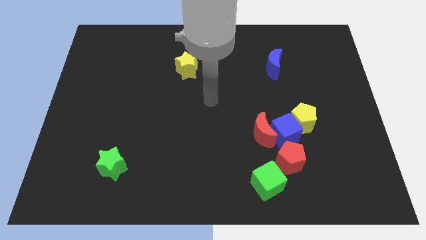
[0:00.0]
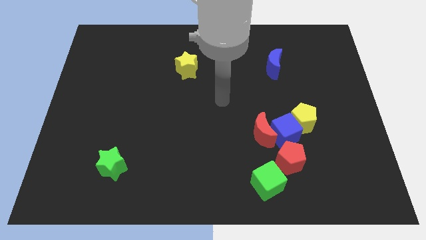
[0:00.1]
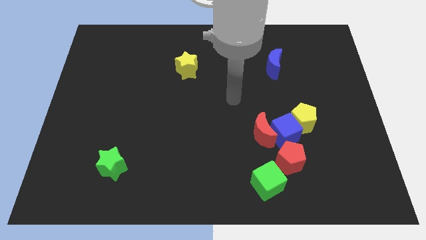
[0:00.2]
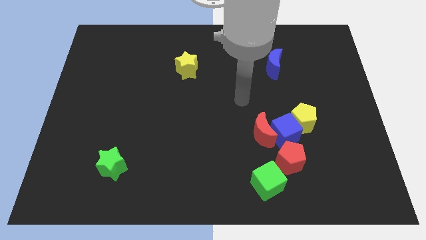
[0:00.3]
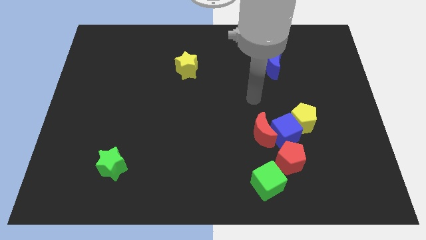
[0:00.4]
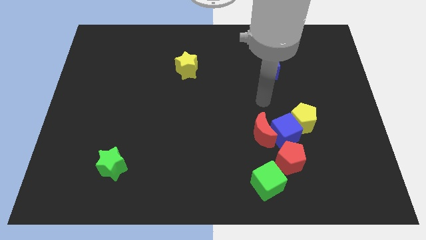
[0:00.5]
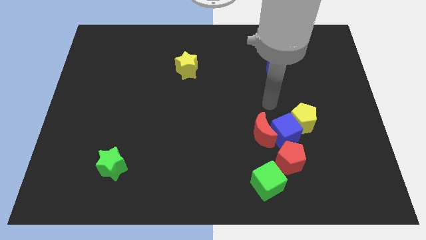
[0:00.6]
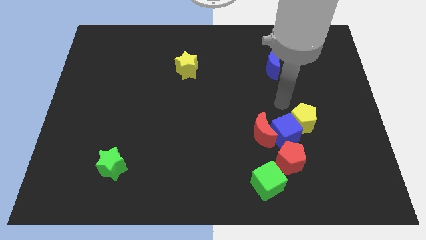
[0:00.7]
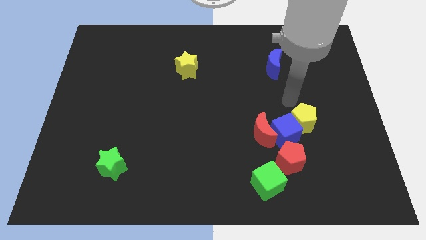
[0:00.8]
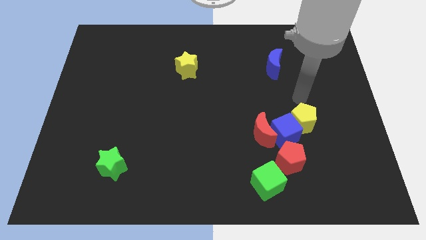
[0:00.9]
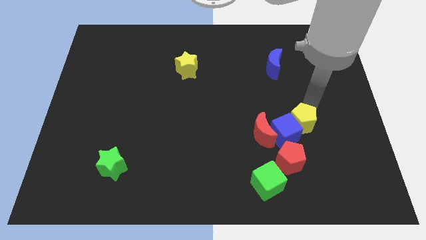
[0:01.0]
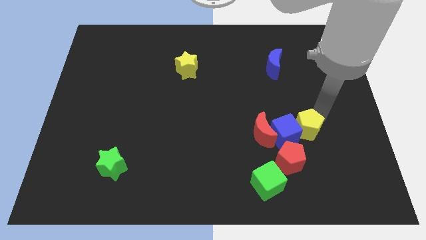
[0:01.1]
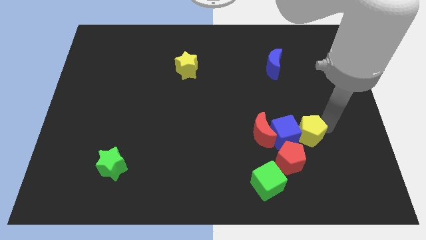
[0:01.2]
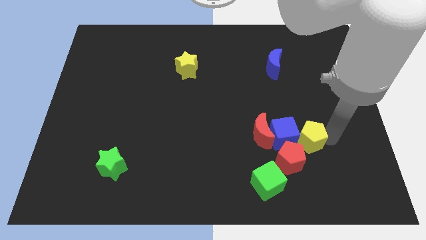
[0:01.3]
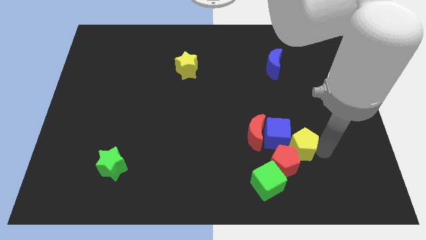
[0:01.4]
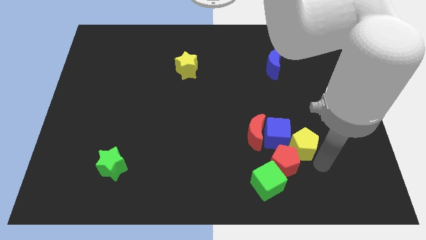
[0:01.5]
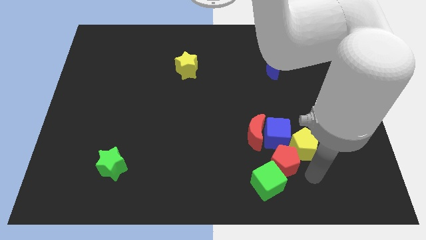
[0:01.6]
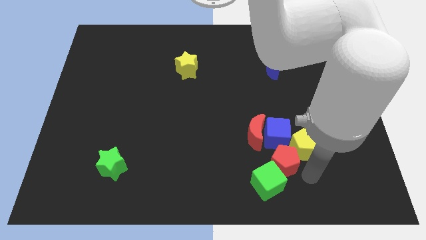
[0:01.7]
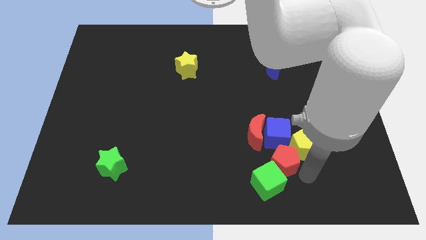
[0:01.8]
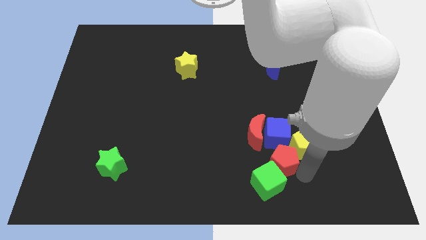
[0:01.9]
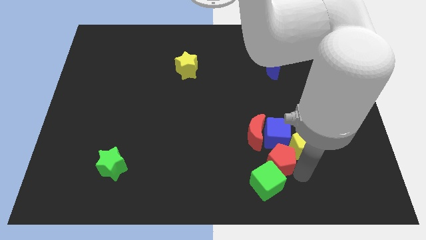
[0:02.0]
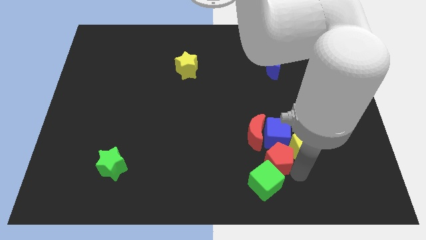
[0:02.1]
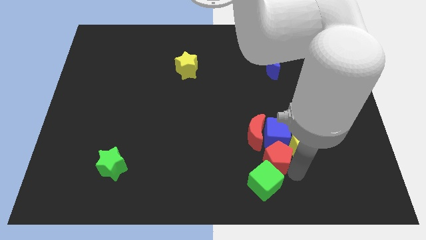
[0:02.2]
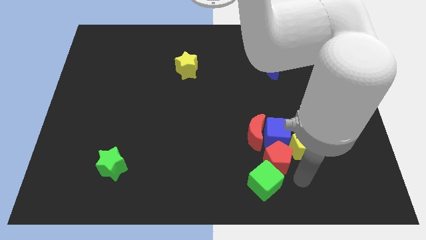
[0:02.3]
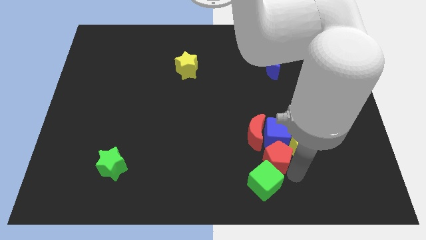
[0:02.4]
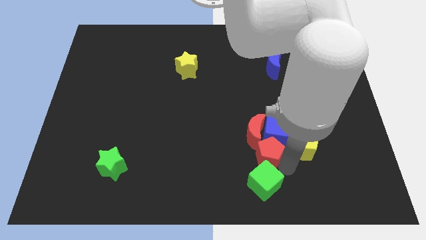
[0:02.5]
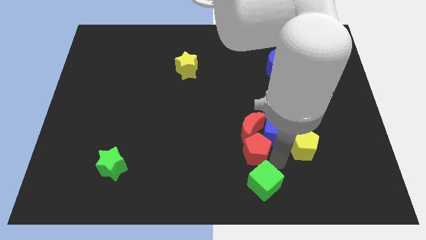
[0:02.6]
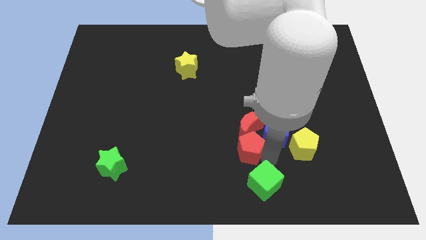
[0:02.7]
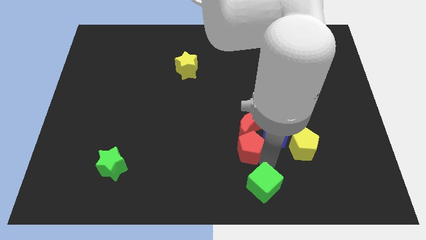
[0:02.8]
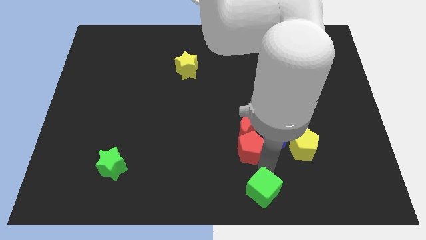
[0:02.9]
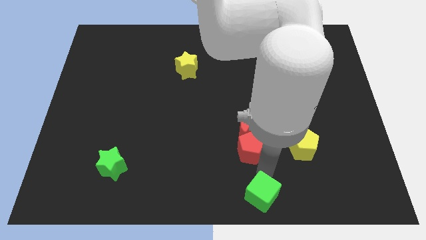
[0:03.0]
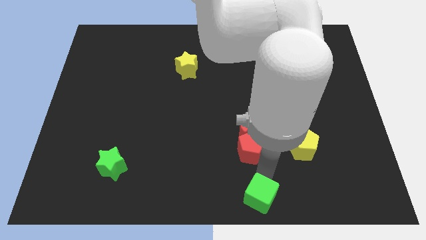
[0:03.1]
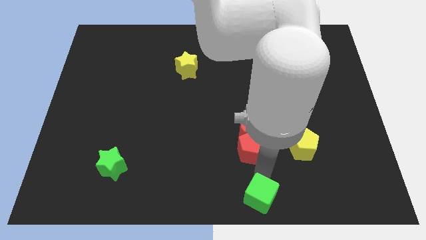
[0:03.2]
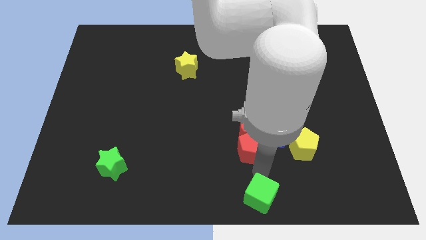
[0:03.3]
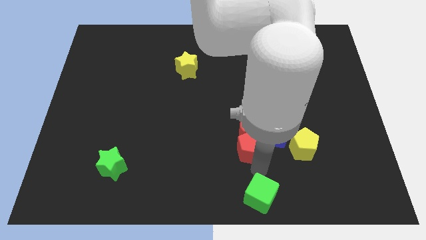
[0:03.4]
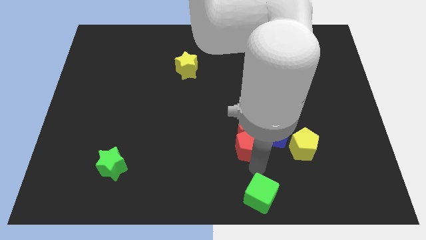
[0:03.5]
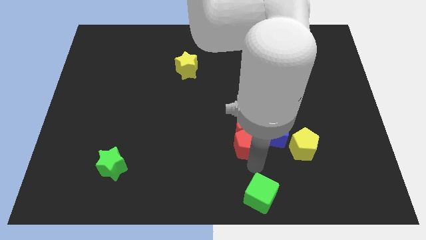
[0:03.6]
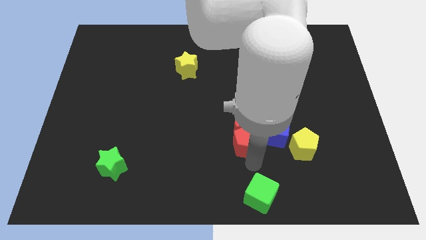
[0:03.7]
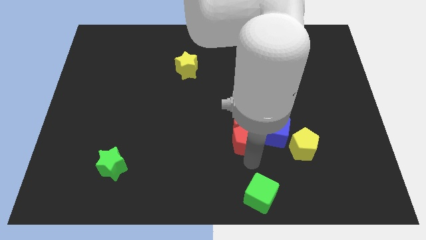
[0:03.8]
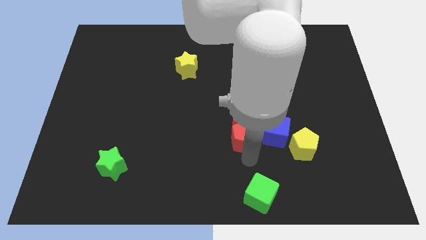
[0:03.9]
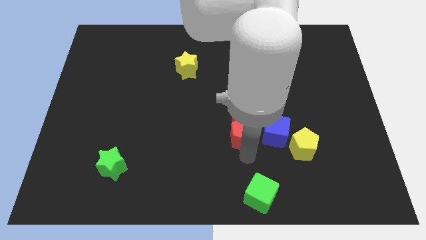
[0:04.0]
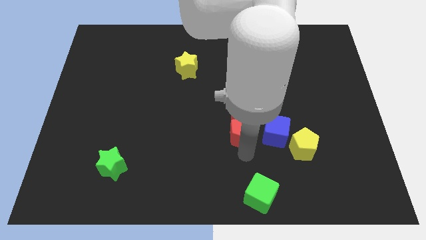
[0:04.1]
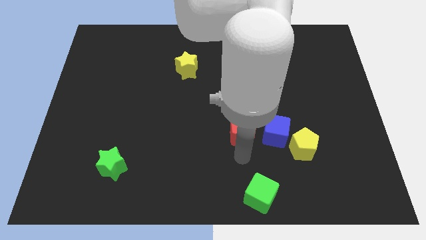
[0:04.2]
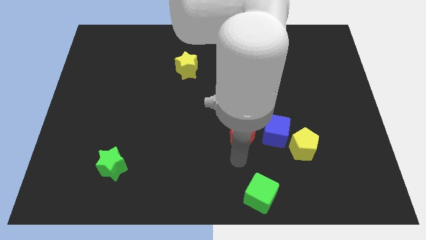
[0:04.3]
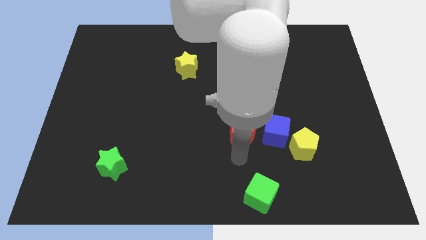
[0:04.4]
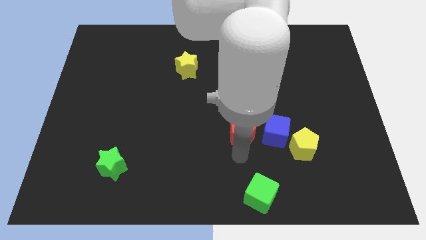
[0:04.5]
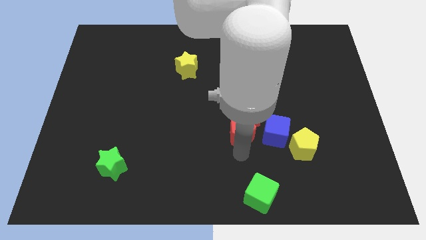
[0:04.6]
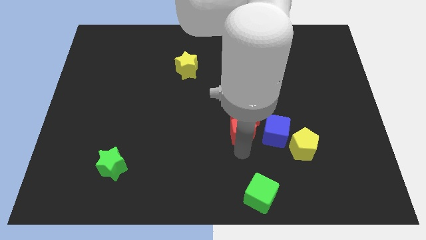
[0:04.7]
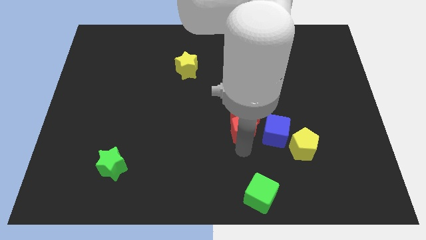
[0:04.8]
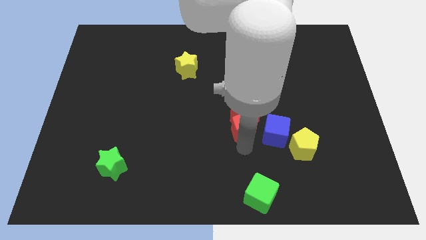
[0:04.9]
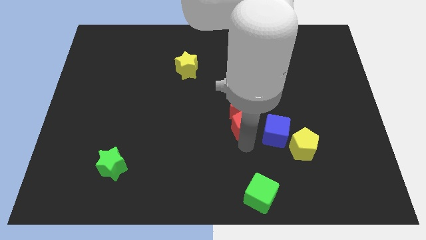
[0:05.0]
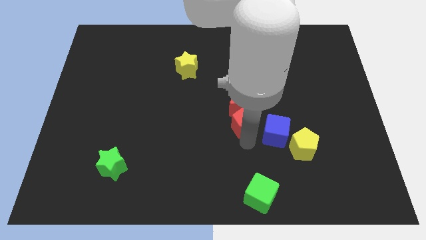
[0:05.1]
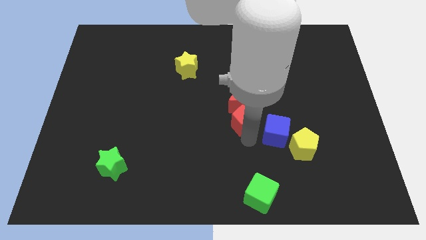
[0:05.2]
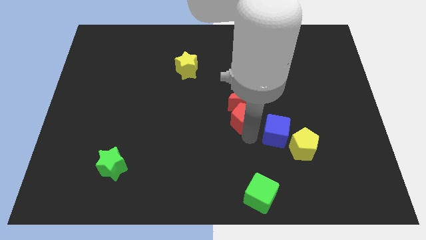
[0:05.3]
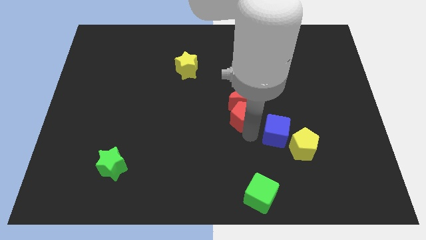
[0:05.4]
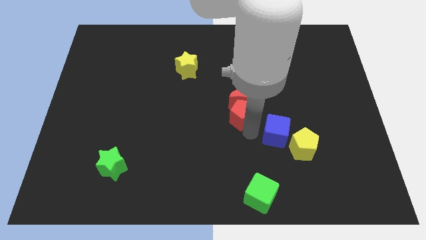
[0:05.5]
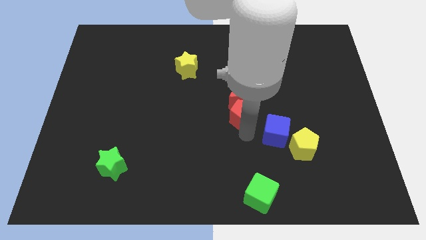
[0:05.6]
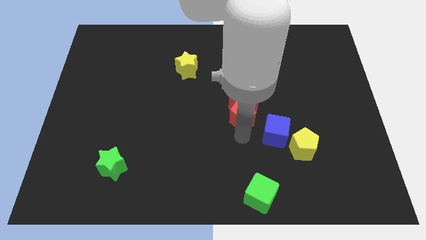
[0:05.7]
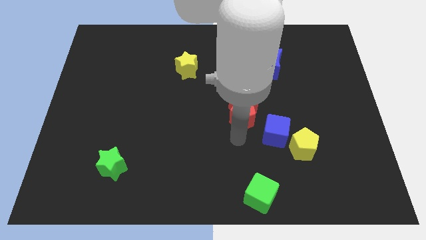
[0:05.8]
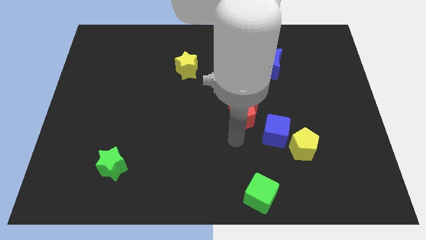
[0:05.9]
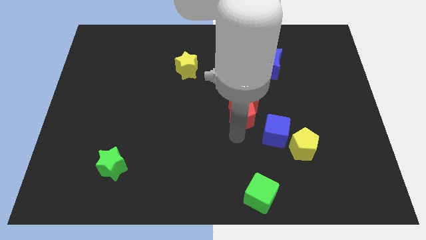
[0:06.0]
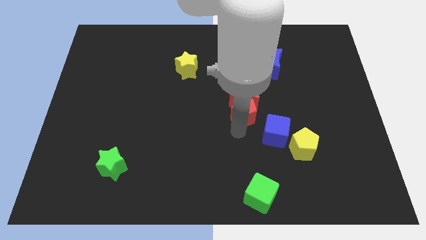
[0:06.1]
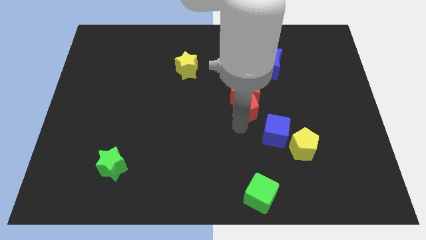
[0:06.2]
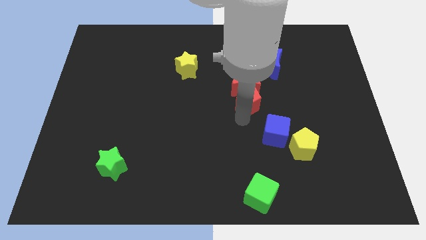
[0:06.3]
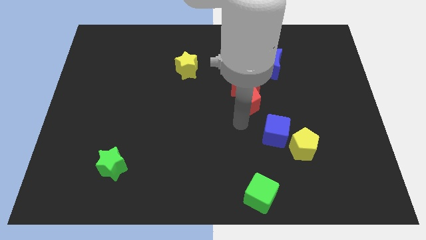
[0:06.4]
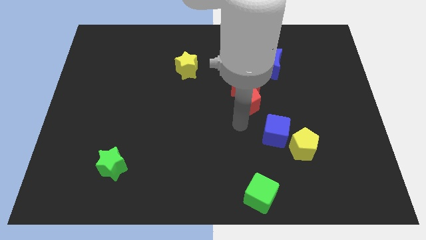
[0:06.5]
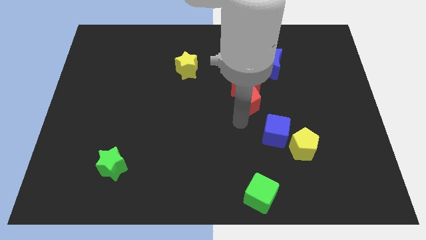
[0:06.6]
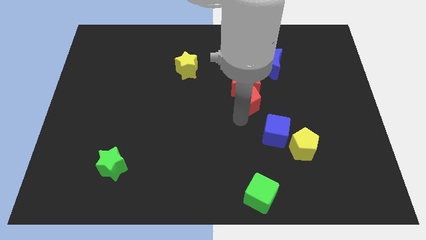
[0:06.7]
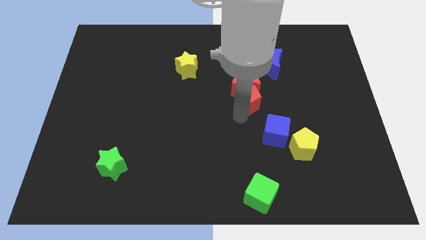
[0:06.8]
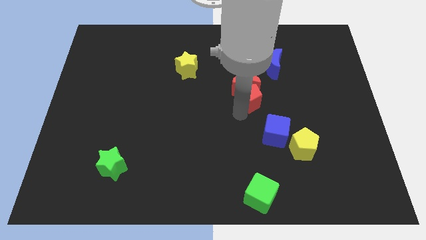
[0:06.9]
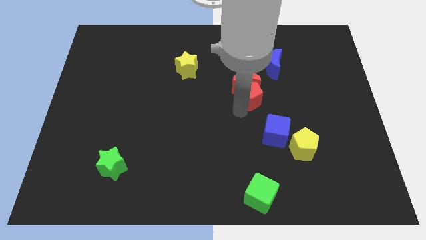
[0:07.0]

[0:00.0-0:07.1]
move the red pentagon to the bottom left side of the blue moon
